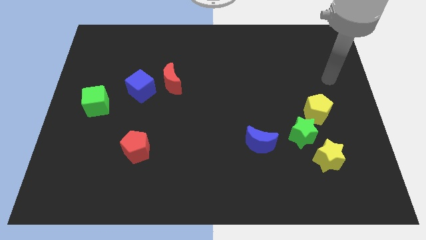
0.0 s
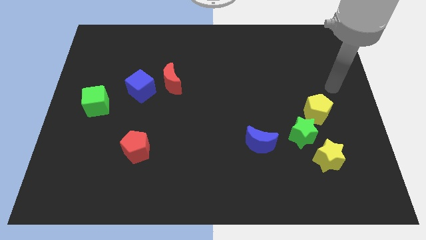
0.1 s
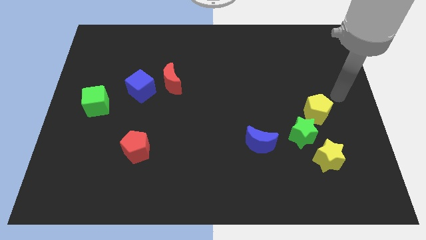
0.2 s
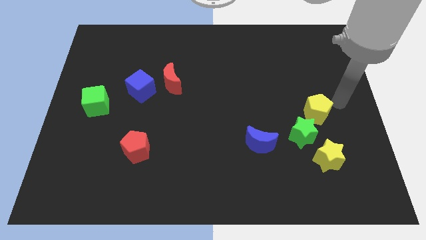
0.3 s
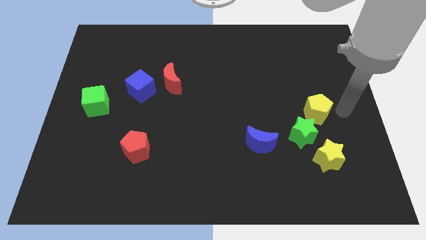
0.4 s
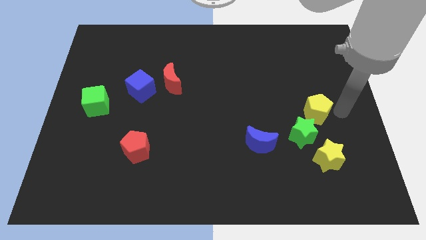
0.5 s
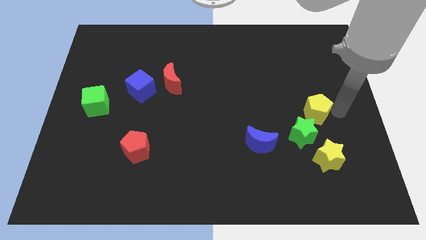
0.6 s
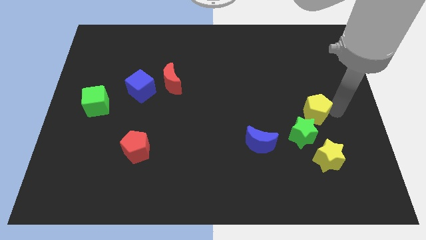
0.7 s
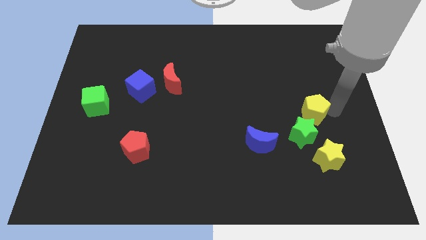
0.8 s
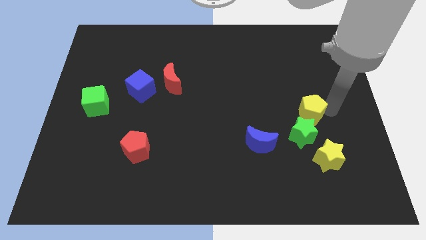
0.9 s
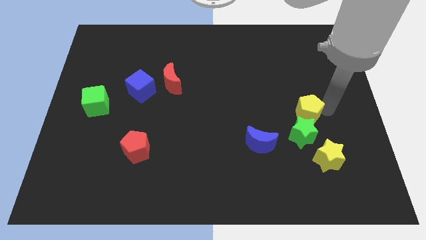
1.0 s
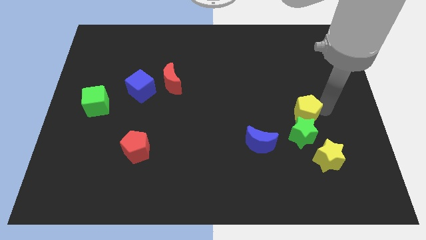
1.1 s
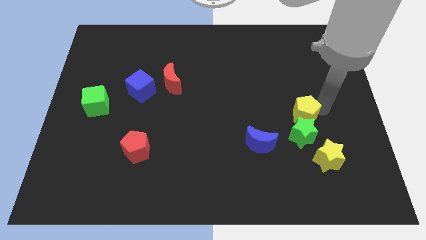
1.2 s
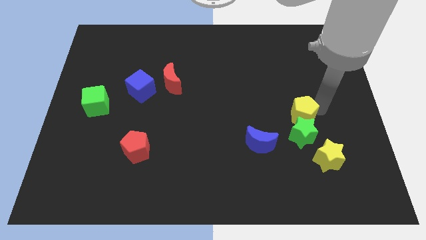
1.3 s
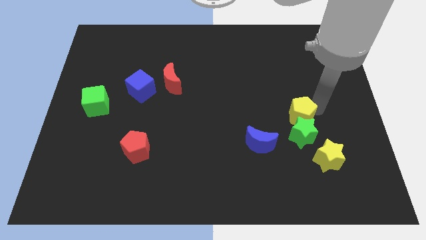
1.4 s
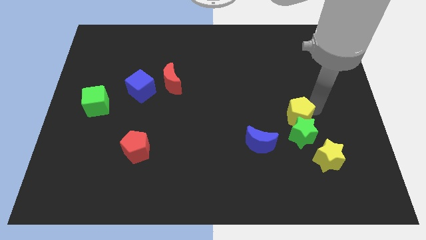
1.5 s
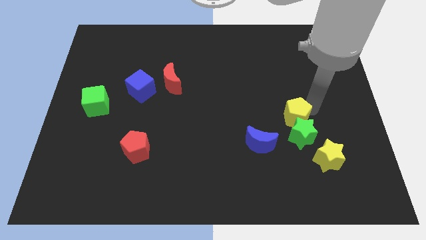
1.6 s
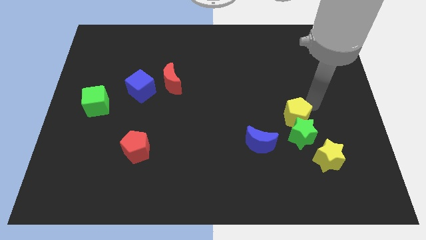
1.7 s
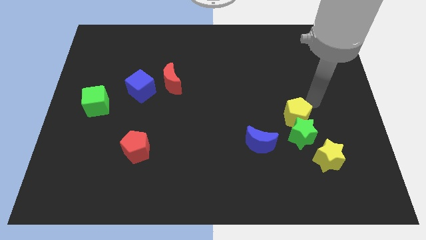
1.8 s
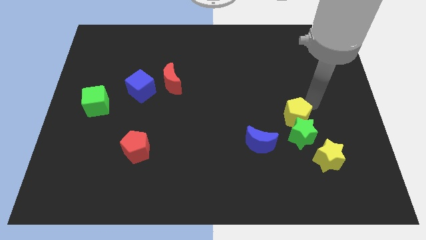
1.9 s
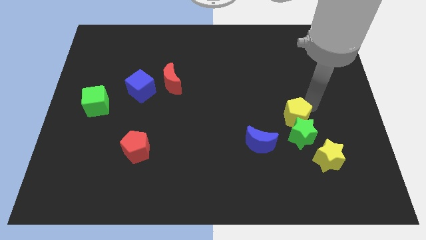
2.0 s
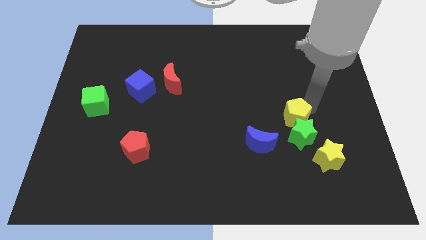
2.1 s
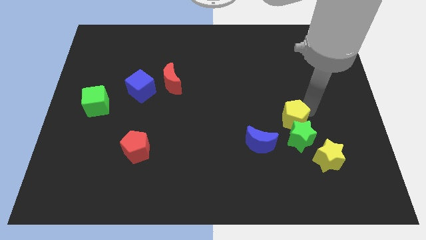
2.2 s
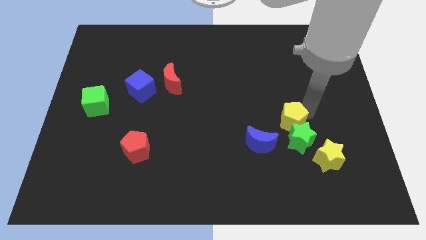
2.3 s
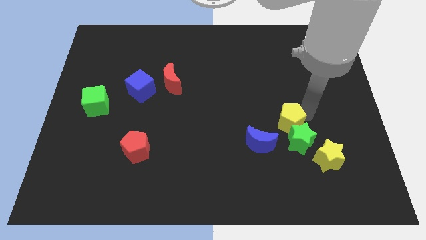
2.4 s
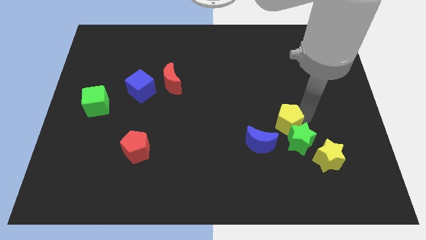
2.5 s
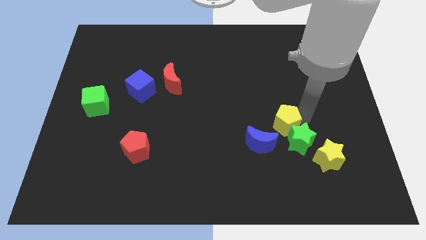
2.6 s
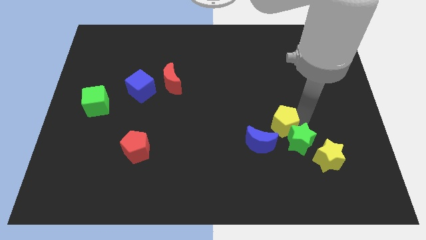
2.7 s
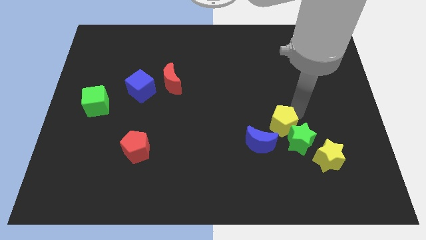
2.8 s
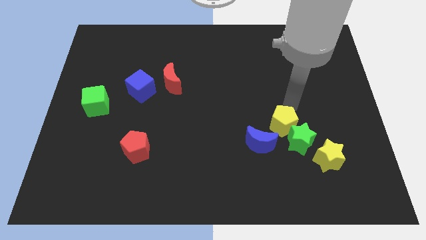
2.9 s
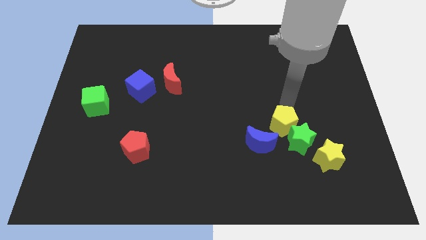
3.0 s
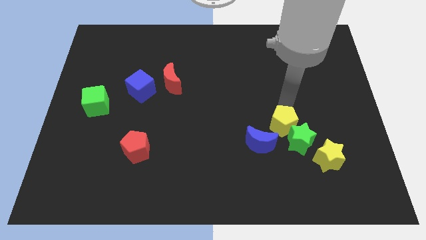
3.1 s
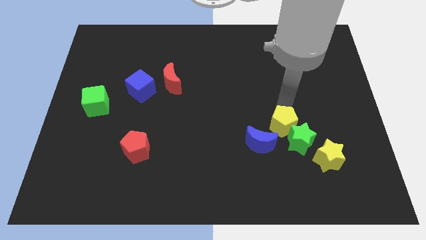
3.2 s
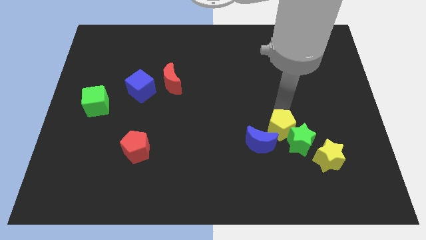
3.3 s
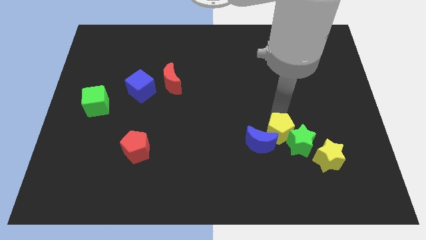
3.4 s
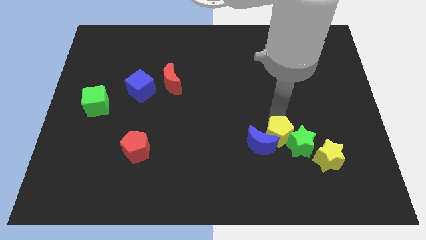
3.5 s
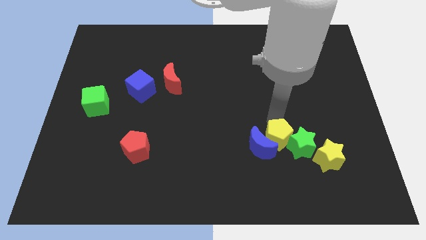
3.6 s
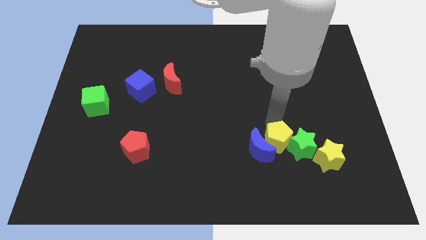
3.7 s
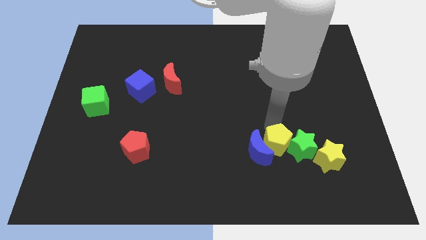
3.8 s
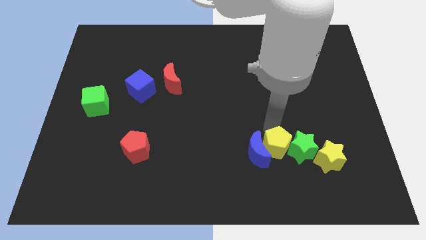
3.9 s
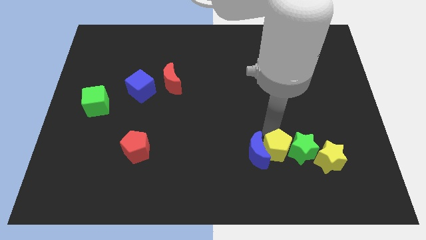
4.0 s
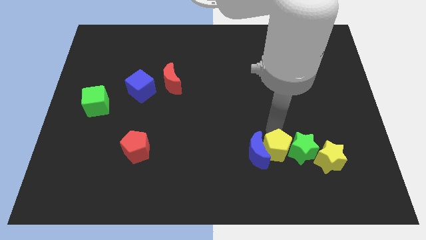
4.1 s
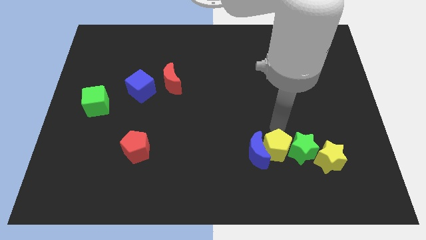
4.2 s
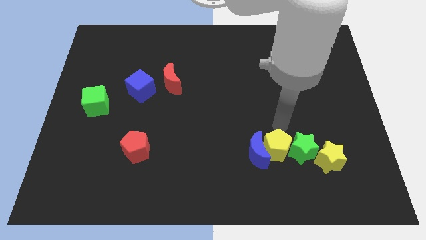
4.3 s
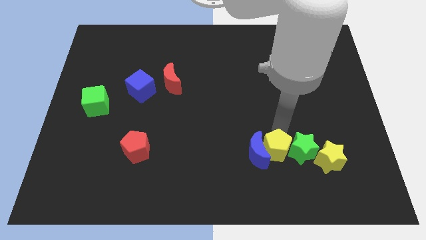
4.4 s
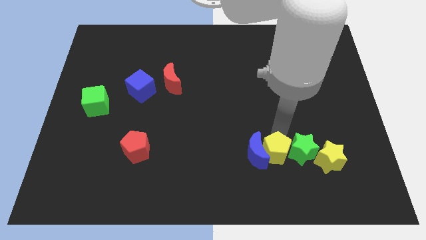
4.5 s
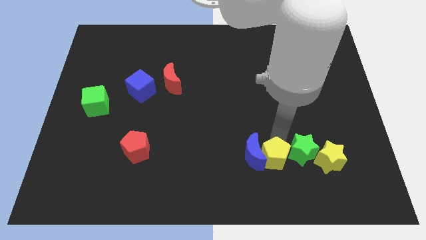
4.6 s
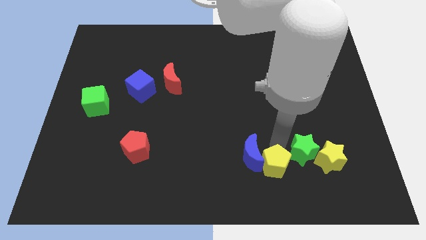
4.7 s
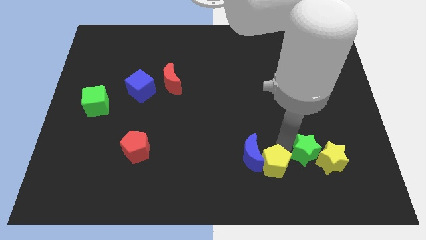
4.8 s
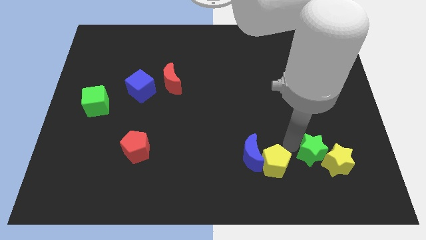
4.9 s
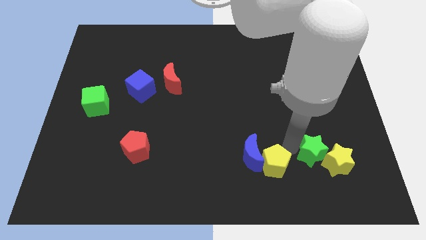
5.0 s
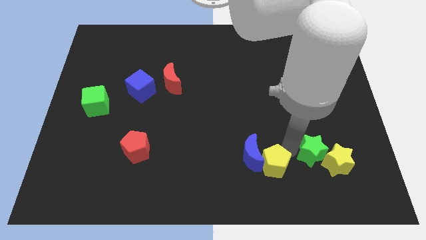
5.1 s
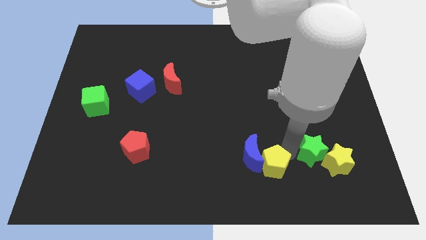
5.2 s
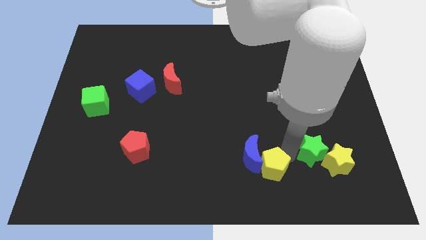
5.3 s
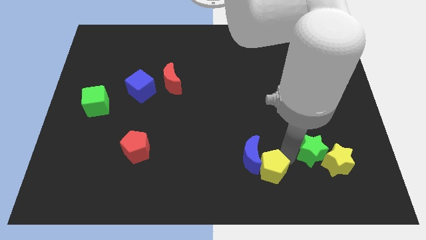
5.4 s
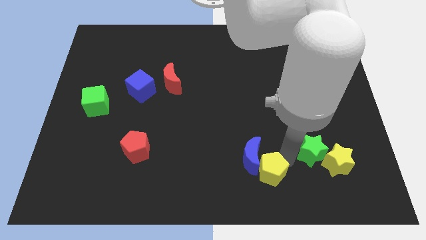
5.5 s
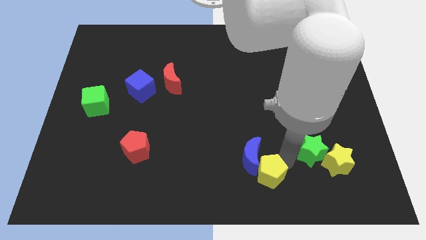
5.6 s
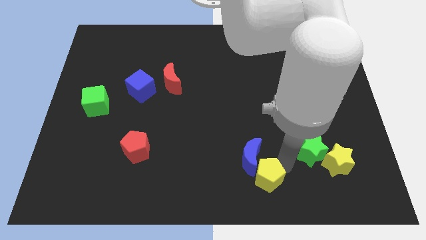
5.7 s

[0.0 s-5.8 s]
move the yellow pentagon to the bottom

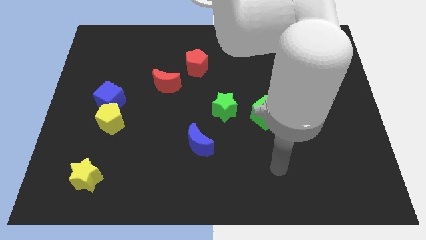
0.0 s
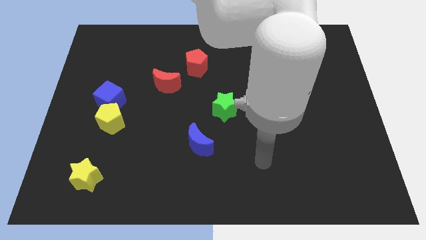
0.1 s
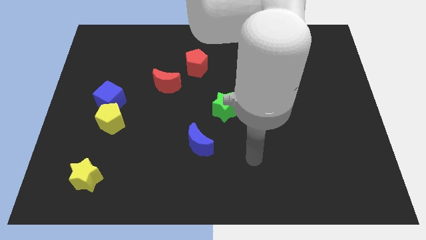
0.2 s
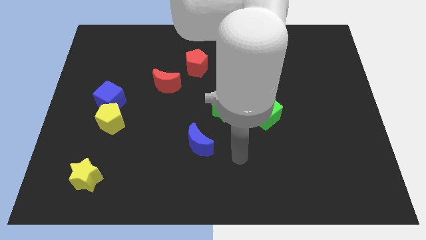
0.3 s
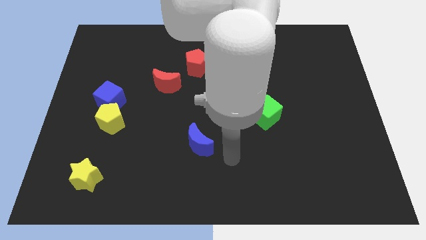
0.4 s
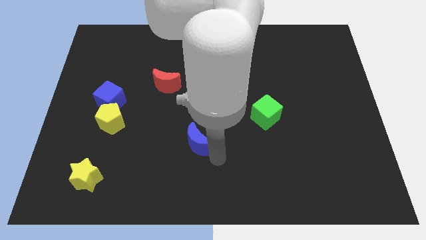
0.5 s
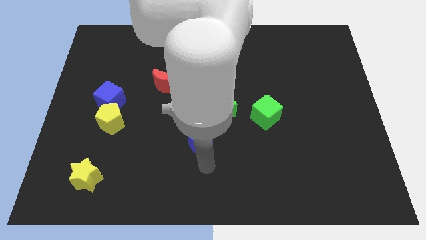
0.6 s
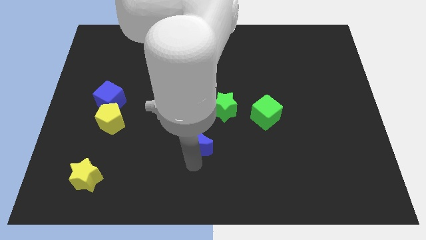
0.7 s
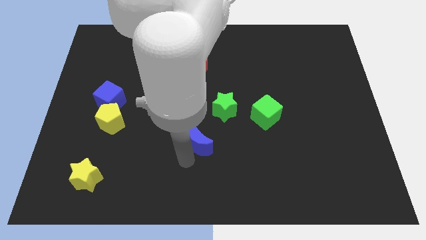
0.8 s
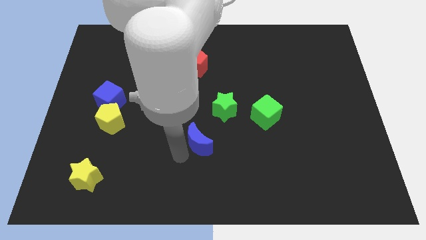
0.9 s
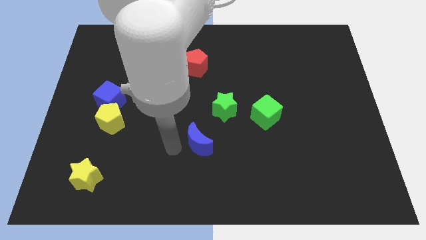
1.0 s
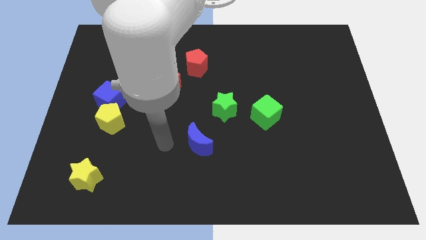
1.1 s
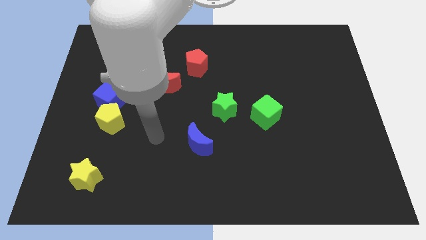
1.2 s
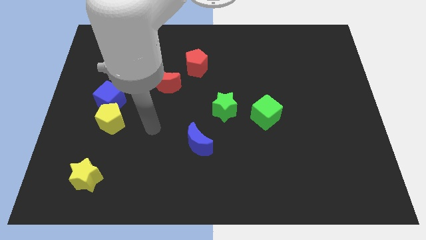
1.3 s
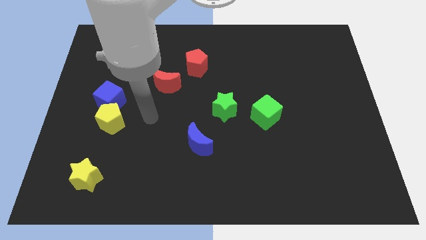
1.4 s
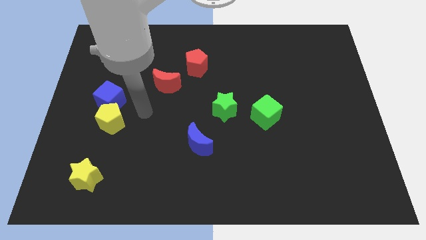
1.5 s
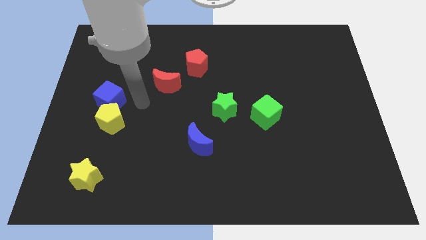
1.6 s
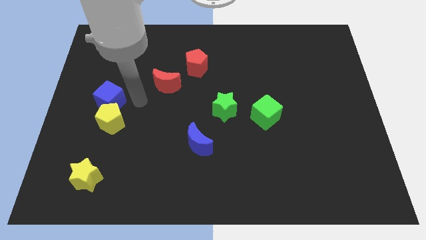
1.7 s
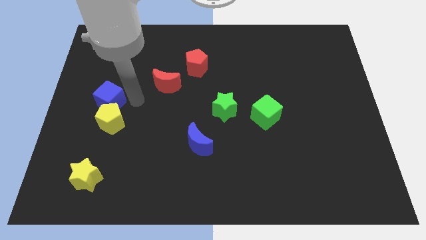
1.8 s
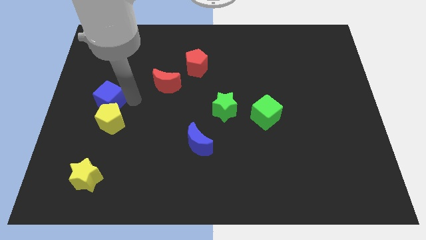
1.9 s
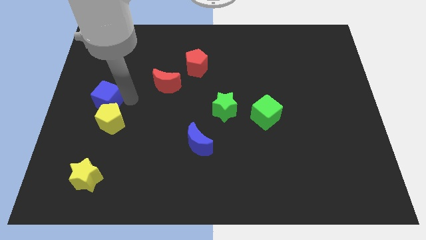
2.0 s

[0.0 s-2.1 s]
push the blue cube to the left side
